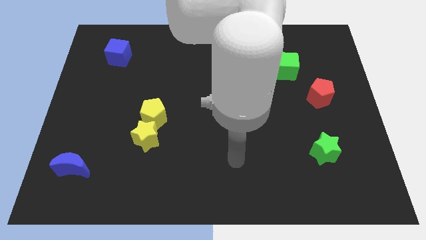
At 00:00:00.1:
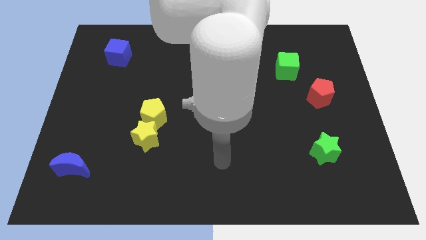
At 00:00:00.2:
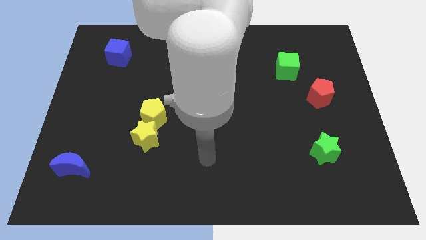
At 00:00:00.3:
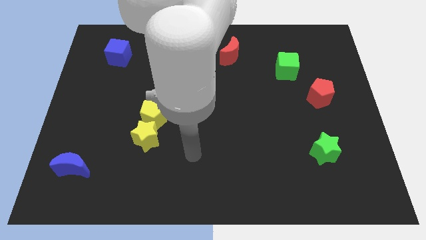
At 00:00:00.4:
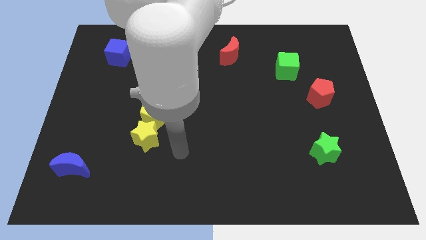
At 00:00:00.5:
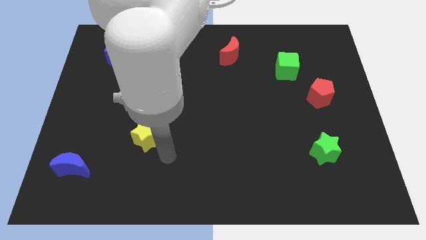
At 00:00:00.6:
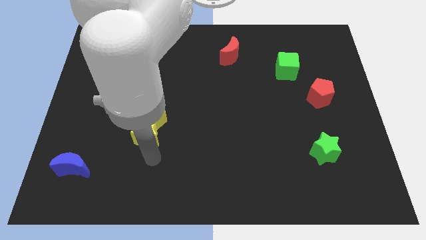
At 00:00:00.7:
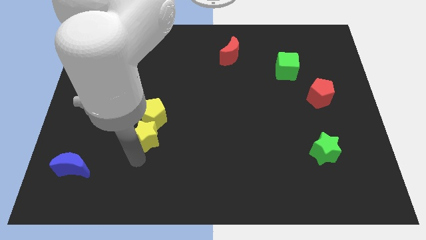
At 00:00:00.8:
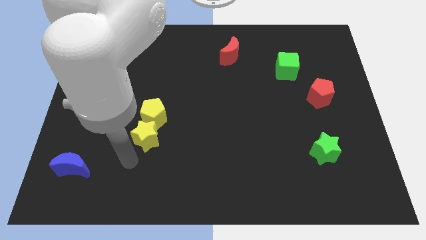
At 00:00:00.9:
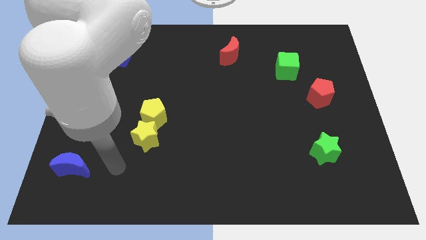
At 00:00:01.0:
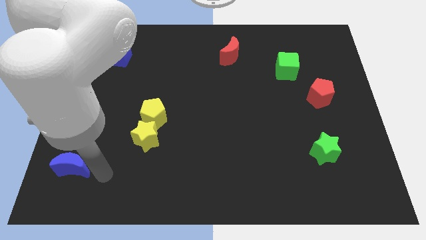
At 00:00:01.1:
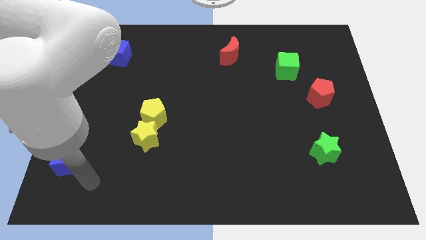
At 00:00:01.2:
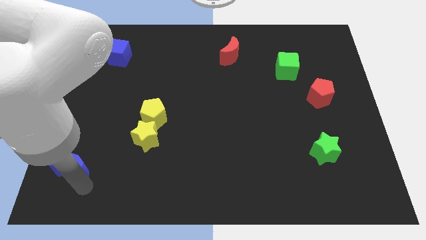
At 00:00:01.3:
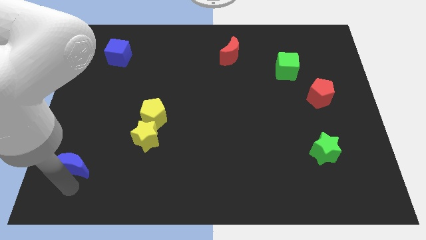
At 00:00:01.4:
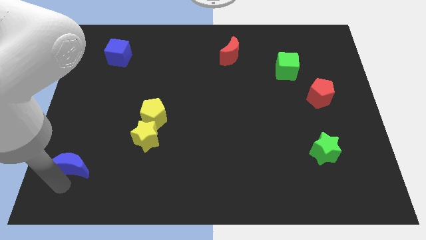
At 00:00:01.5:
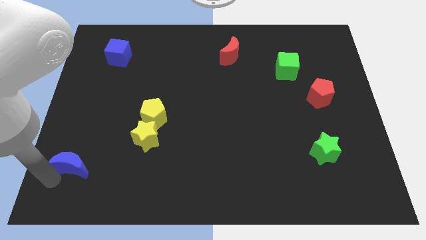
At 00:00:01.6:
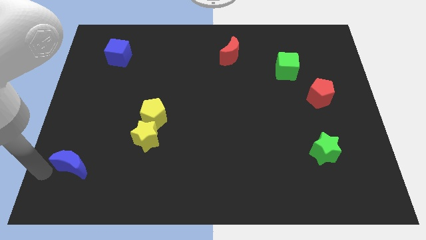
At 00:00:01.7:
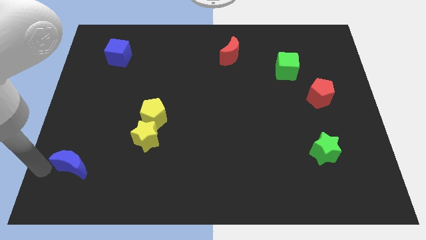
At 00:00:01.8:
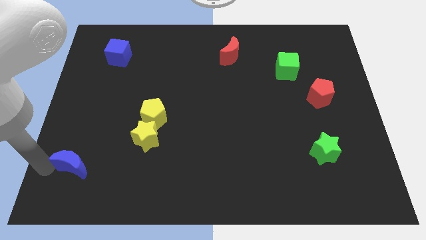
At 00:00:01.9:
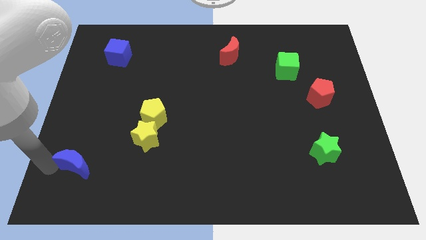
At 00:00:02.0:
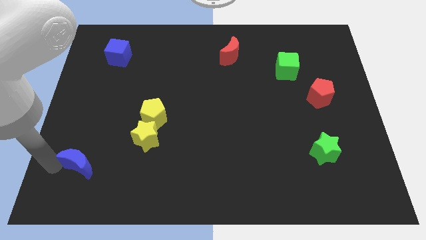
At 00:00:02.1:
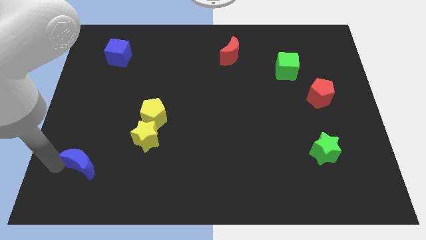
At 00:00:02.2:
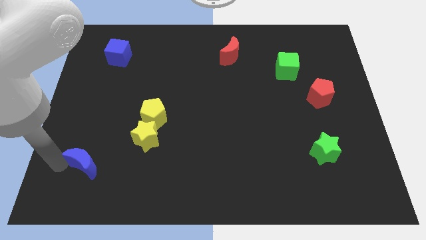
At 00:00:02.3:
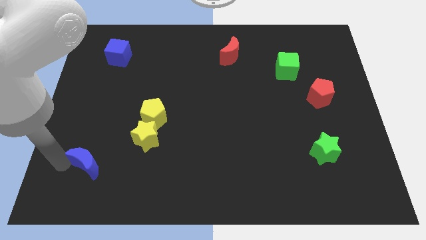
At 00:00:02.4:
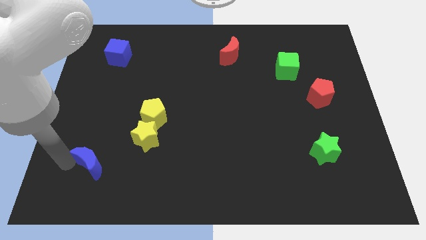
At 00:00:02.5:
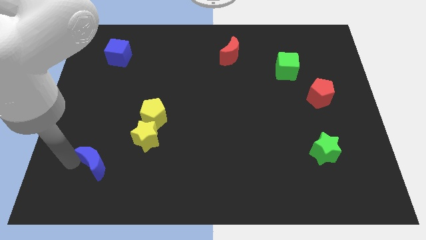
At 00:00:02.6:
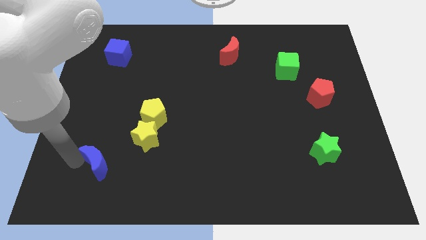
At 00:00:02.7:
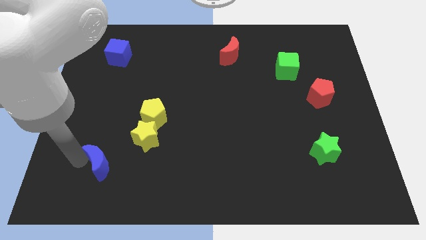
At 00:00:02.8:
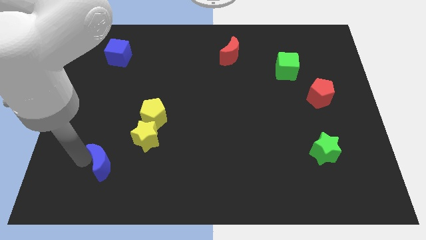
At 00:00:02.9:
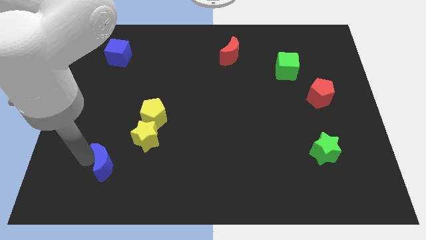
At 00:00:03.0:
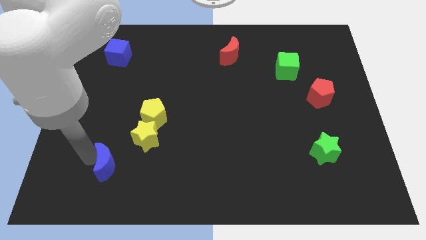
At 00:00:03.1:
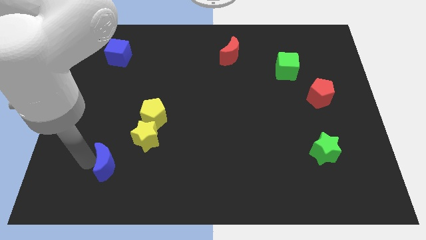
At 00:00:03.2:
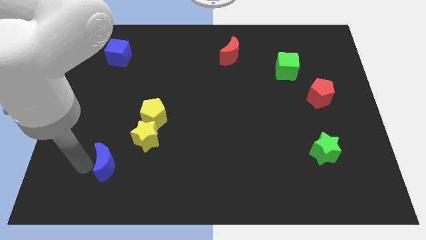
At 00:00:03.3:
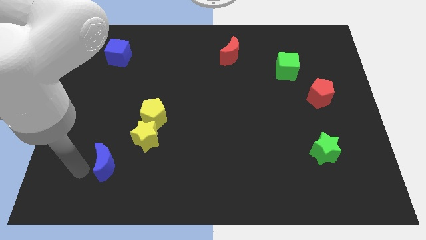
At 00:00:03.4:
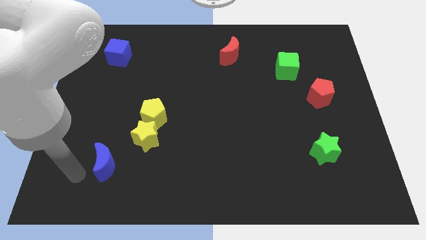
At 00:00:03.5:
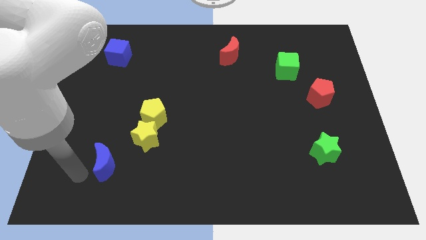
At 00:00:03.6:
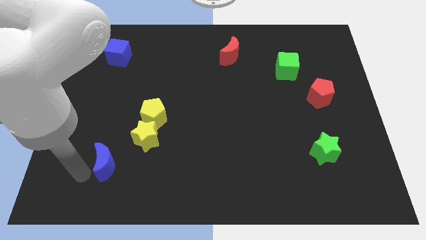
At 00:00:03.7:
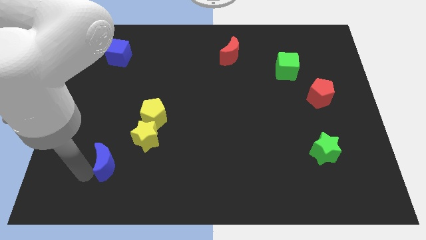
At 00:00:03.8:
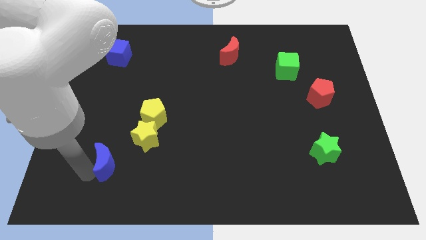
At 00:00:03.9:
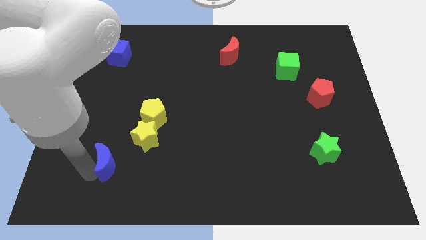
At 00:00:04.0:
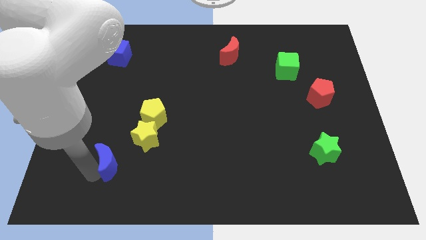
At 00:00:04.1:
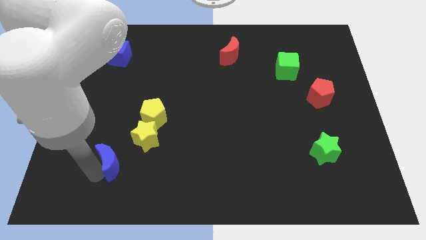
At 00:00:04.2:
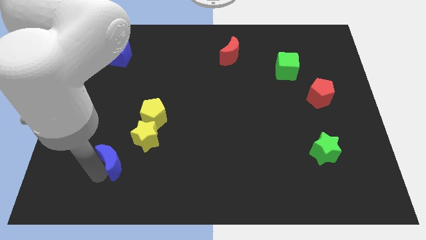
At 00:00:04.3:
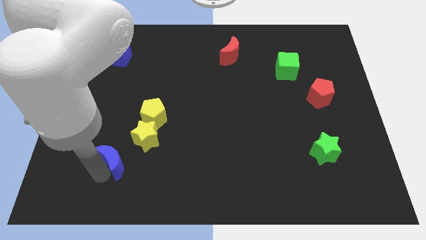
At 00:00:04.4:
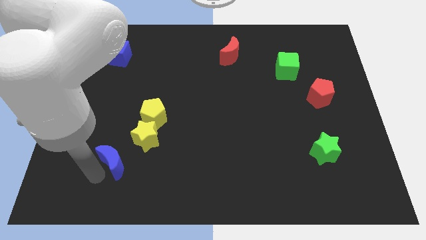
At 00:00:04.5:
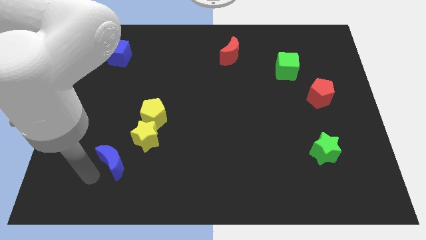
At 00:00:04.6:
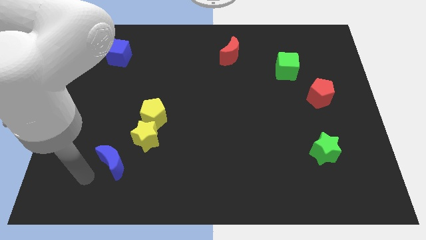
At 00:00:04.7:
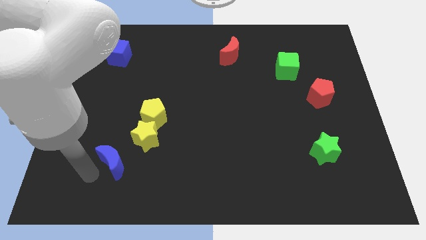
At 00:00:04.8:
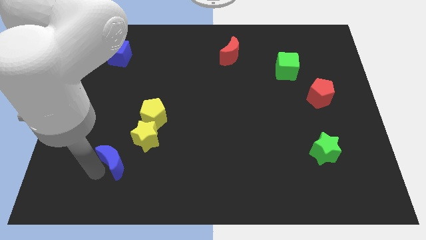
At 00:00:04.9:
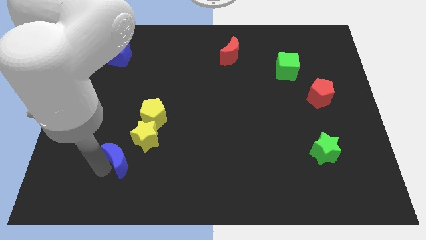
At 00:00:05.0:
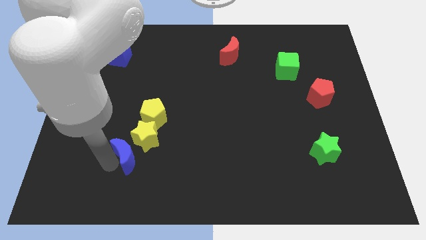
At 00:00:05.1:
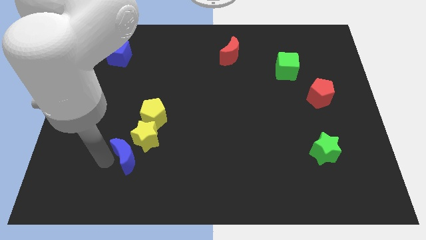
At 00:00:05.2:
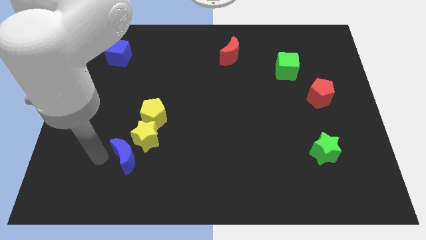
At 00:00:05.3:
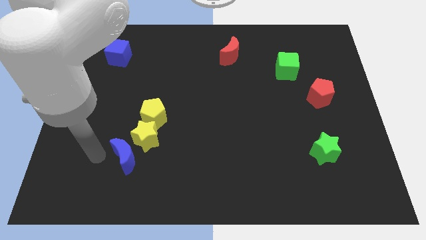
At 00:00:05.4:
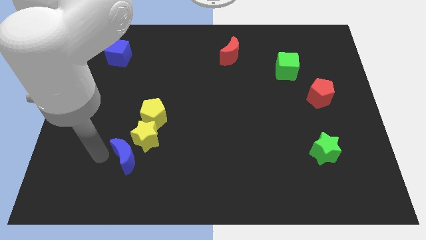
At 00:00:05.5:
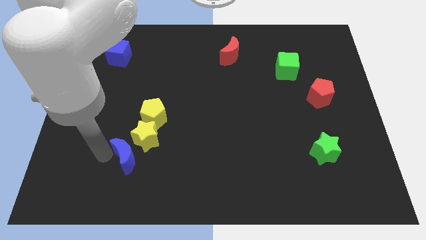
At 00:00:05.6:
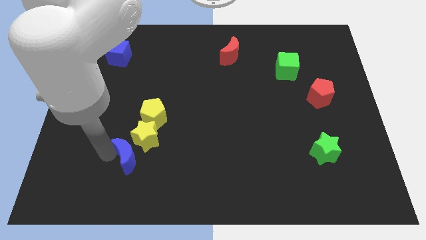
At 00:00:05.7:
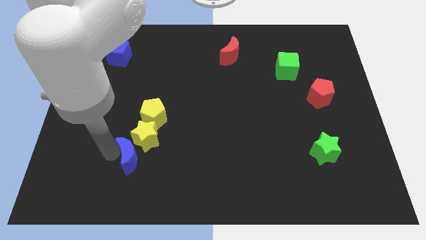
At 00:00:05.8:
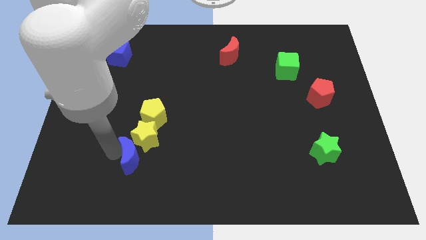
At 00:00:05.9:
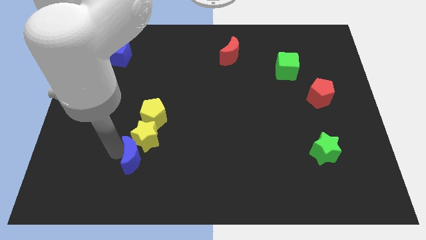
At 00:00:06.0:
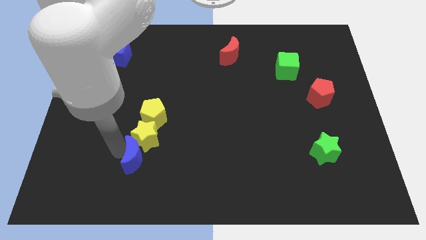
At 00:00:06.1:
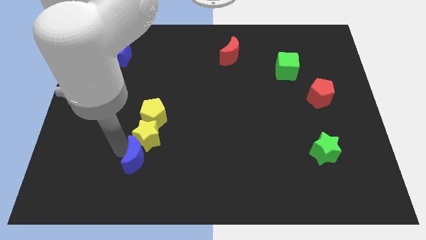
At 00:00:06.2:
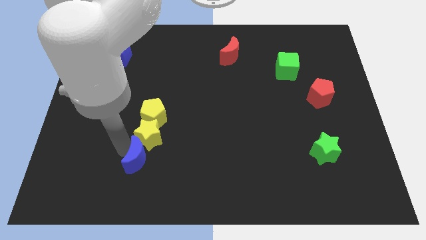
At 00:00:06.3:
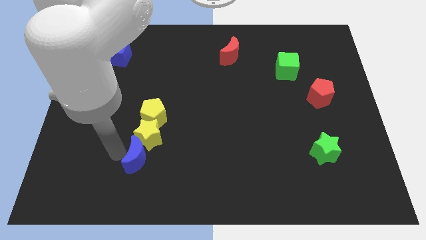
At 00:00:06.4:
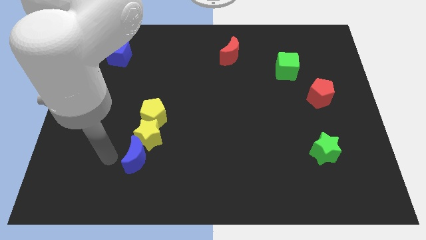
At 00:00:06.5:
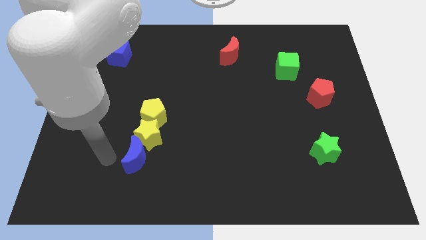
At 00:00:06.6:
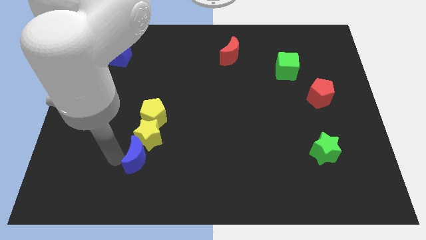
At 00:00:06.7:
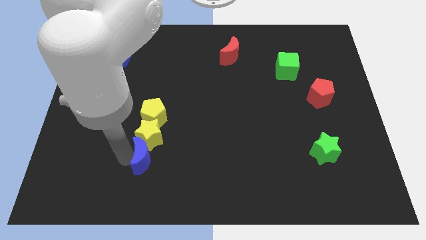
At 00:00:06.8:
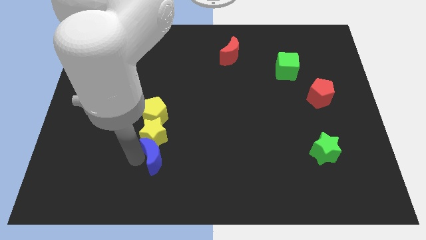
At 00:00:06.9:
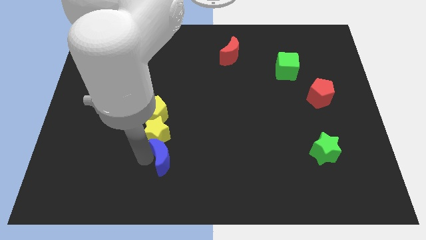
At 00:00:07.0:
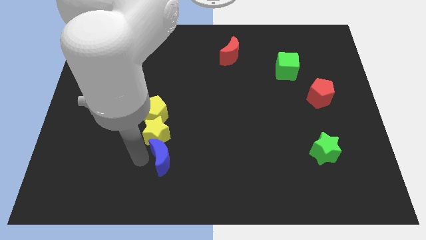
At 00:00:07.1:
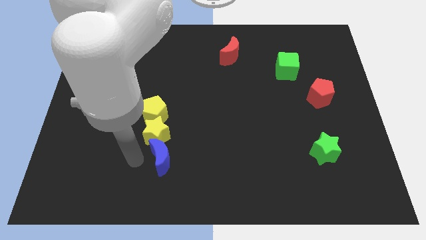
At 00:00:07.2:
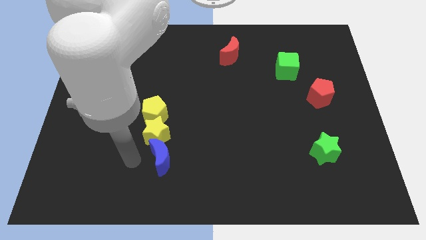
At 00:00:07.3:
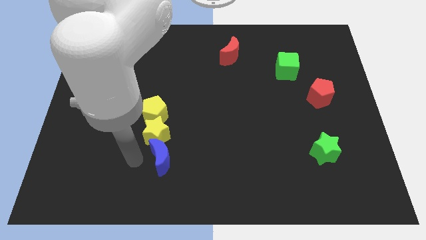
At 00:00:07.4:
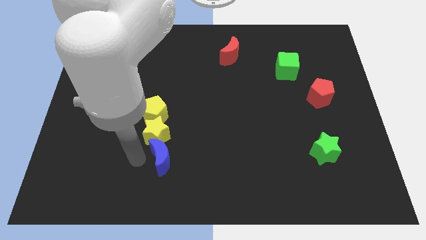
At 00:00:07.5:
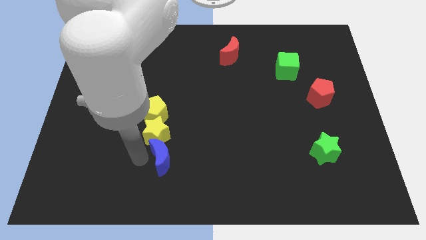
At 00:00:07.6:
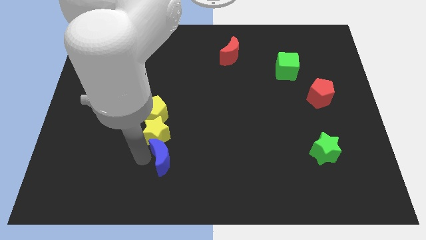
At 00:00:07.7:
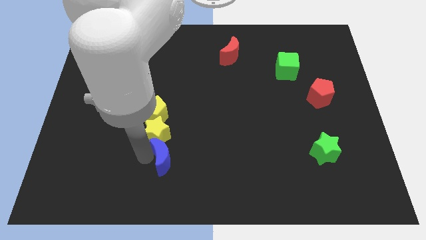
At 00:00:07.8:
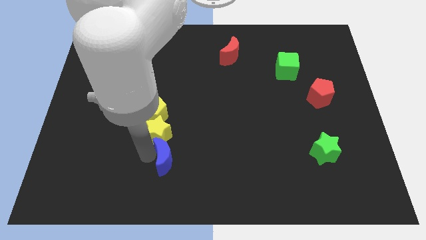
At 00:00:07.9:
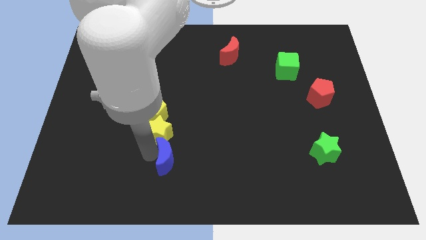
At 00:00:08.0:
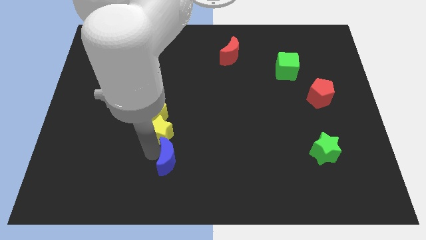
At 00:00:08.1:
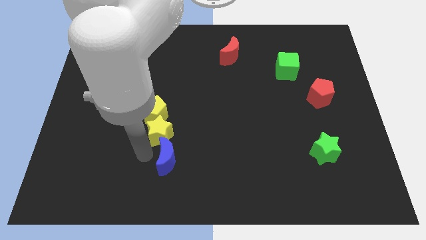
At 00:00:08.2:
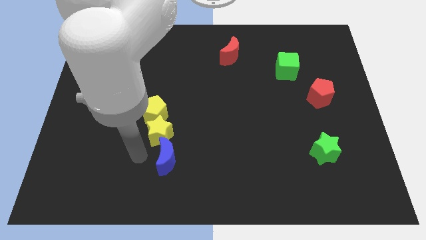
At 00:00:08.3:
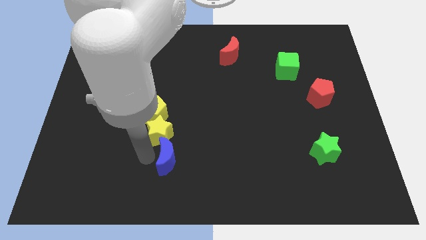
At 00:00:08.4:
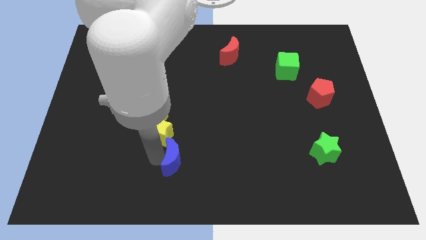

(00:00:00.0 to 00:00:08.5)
move the blue moon right
